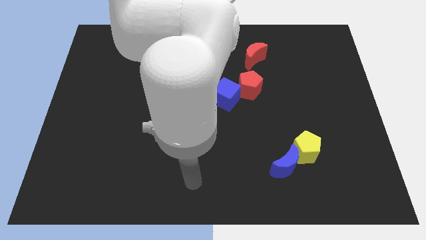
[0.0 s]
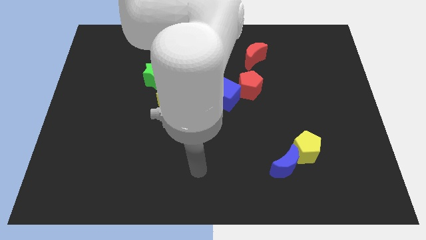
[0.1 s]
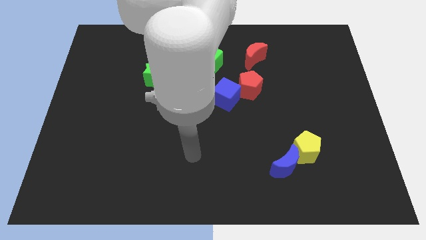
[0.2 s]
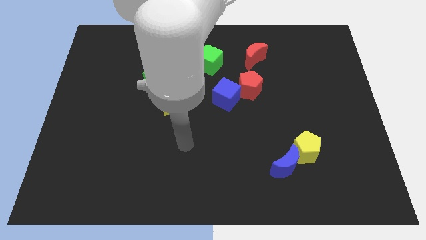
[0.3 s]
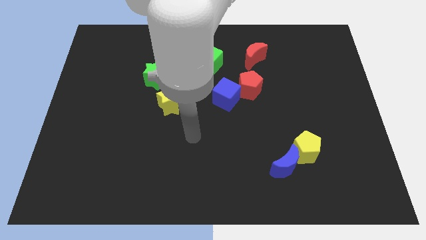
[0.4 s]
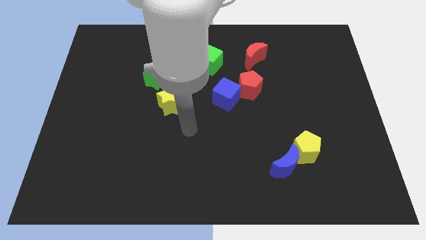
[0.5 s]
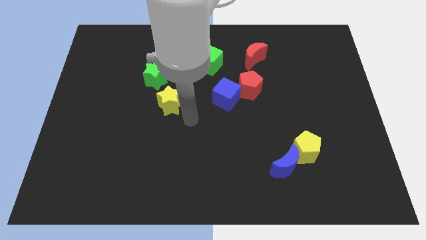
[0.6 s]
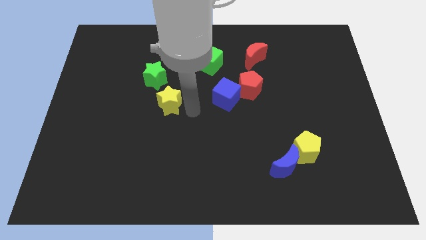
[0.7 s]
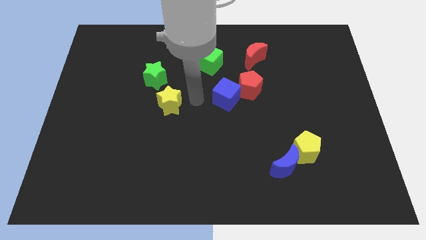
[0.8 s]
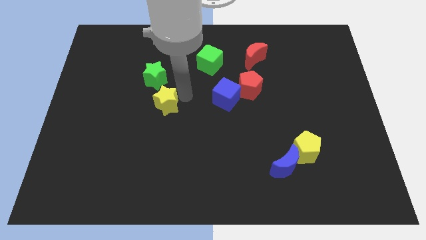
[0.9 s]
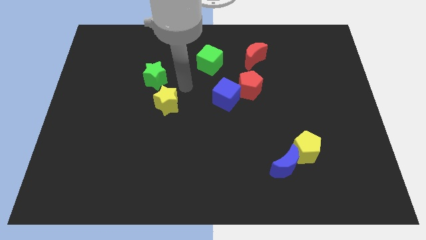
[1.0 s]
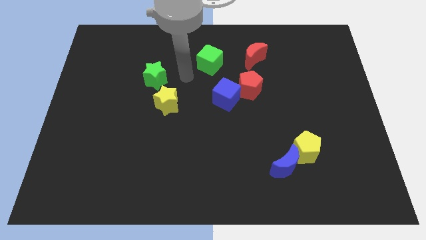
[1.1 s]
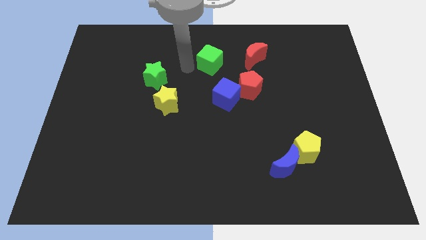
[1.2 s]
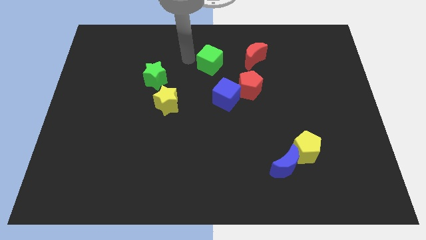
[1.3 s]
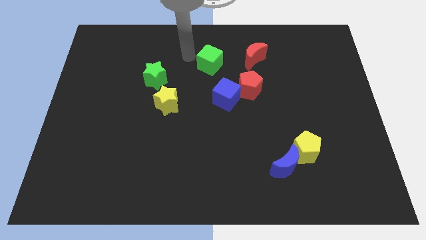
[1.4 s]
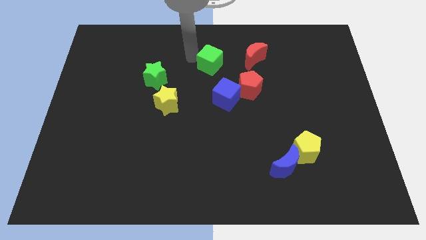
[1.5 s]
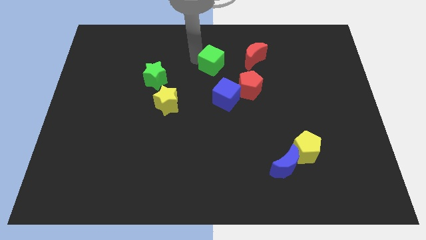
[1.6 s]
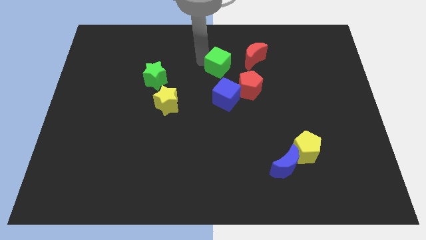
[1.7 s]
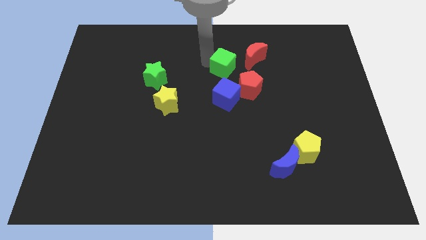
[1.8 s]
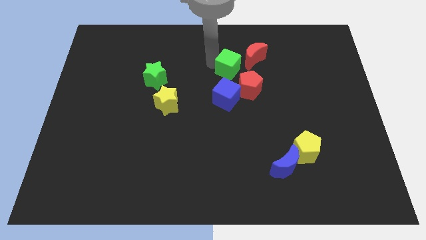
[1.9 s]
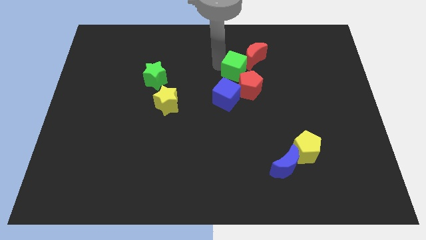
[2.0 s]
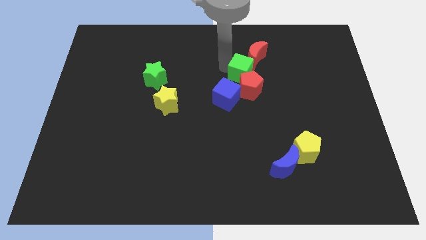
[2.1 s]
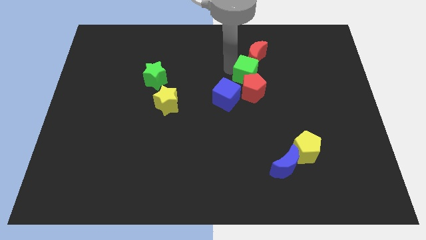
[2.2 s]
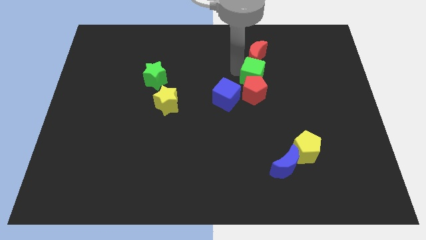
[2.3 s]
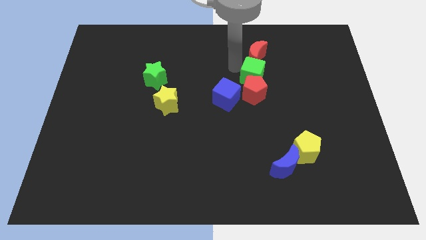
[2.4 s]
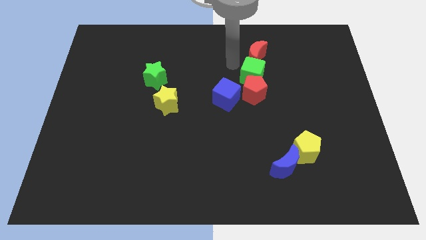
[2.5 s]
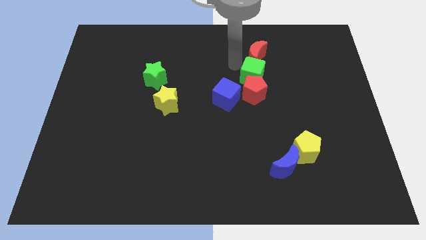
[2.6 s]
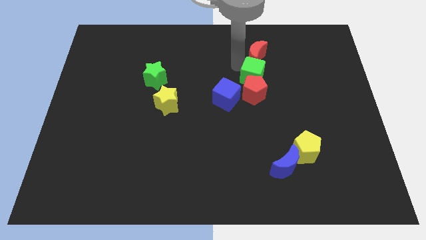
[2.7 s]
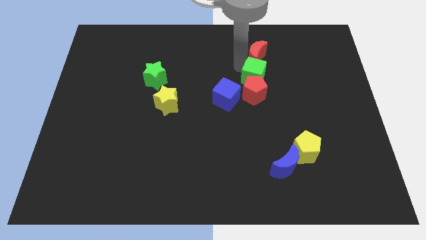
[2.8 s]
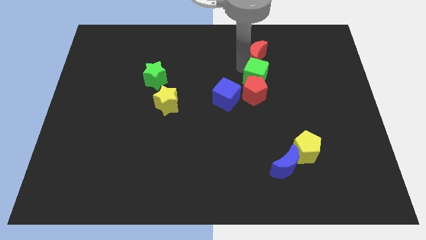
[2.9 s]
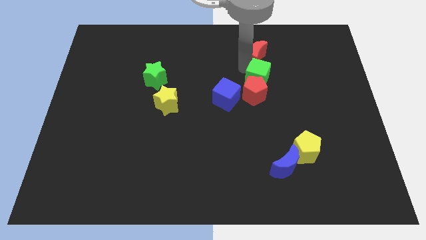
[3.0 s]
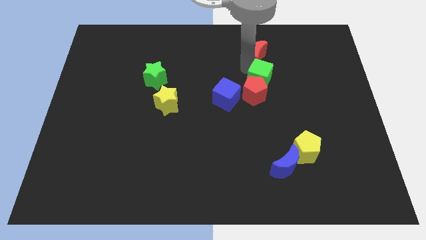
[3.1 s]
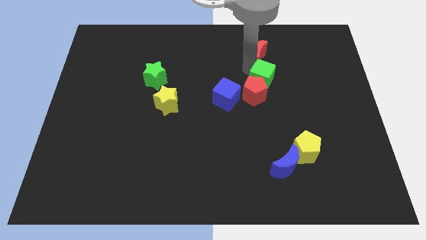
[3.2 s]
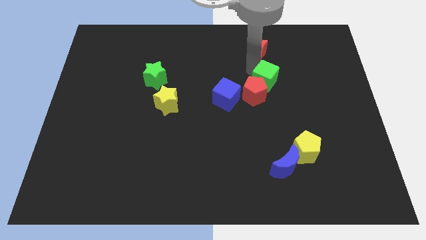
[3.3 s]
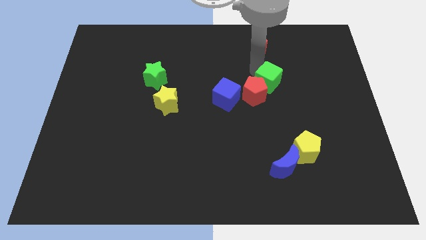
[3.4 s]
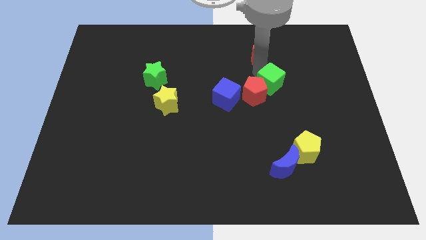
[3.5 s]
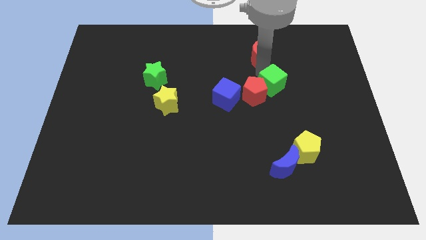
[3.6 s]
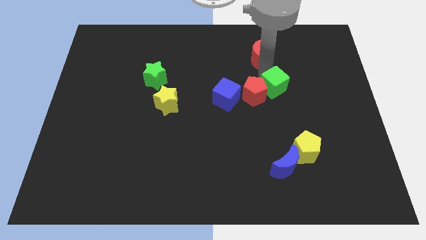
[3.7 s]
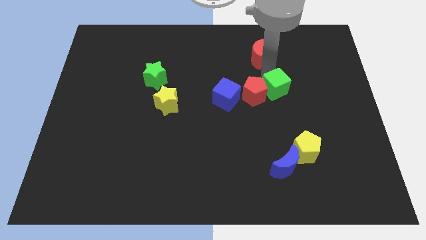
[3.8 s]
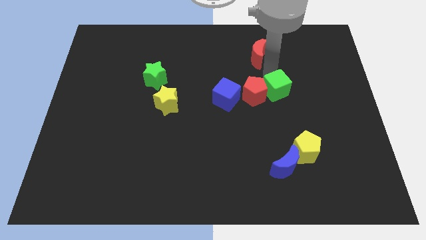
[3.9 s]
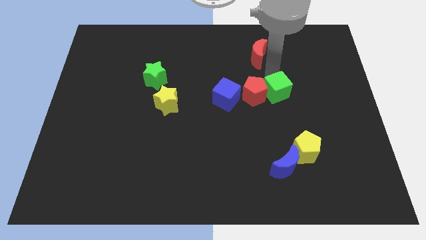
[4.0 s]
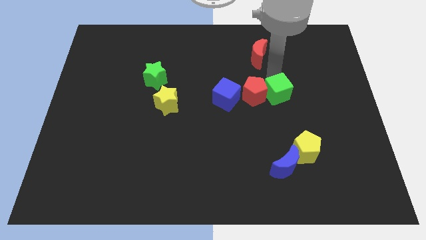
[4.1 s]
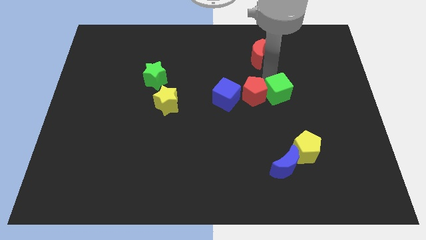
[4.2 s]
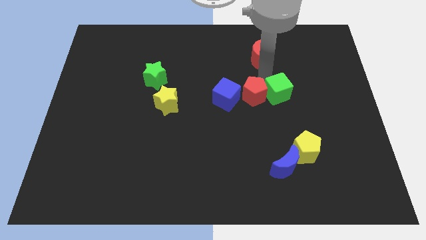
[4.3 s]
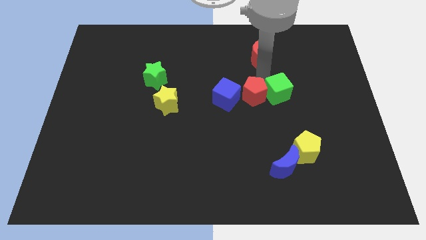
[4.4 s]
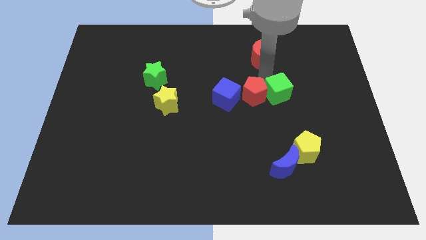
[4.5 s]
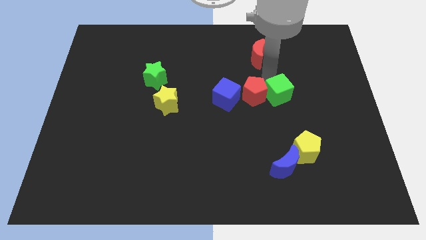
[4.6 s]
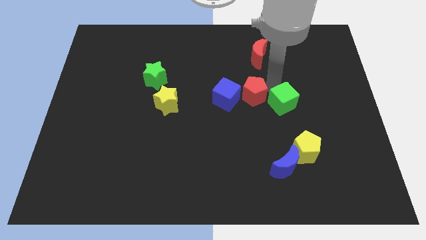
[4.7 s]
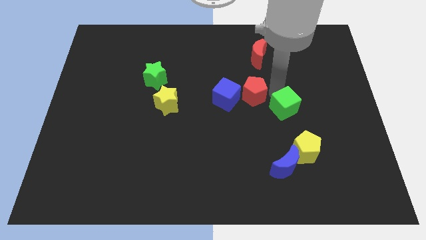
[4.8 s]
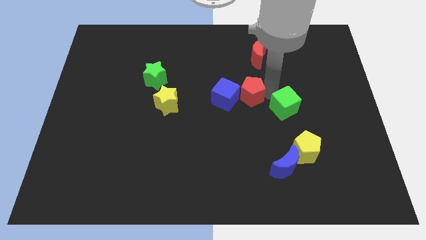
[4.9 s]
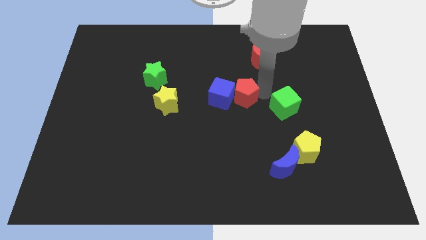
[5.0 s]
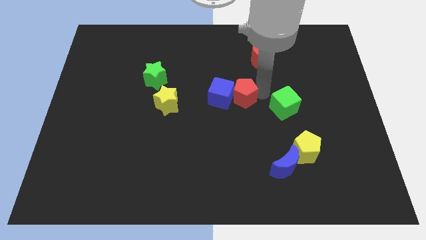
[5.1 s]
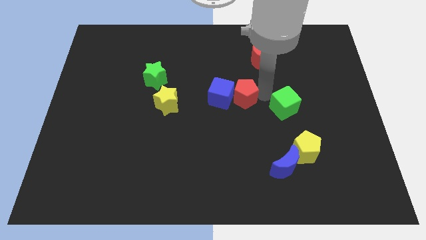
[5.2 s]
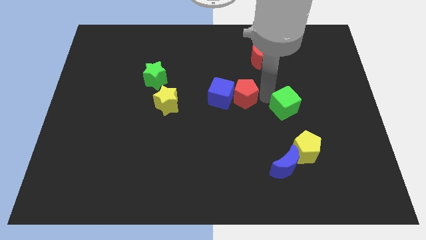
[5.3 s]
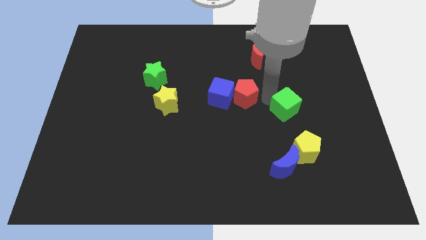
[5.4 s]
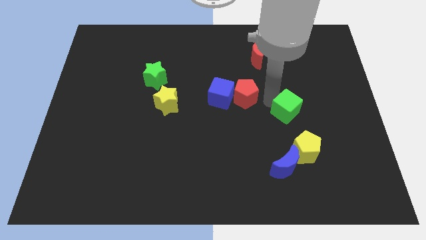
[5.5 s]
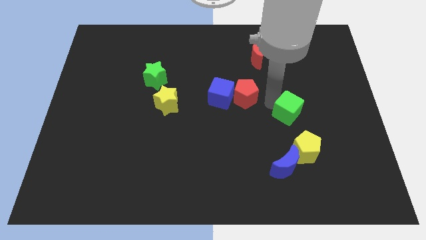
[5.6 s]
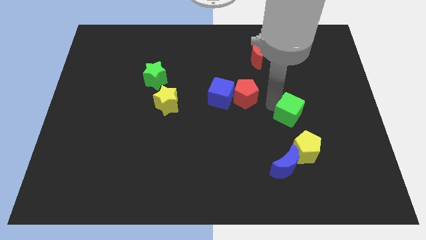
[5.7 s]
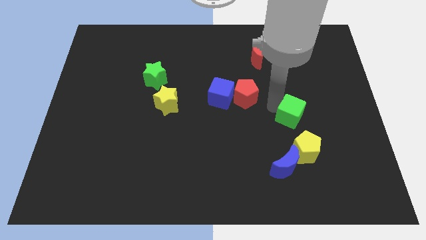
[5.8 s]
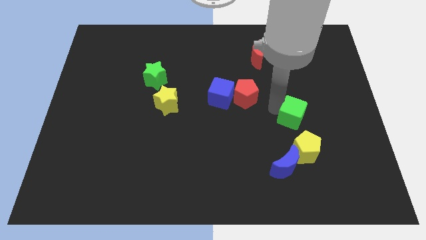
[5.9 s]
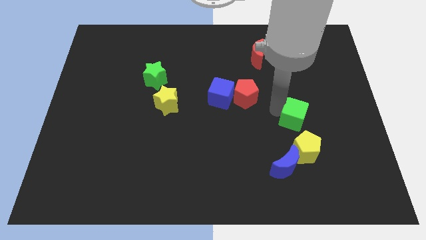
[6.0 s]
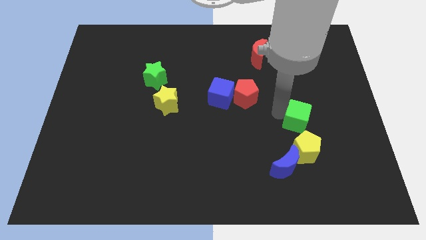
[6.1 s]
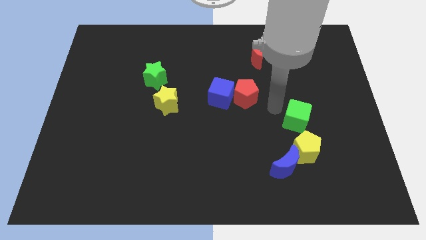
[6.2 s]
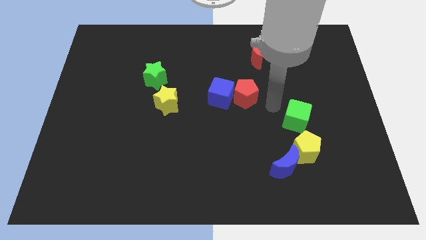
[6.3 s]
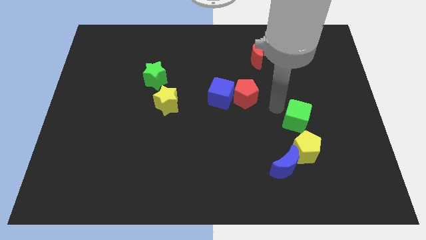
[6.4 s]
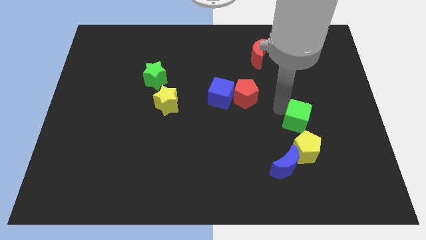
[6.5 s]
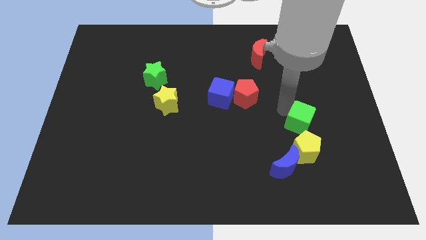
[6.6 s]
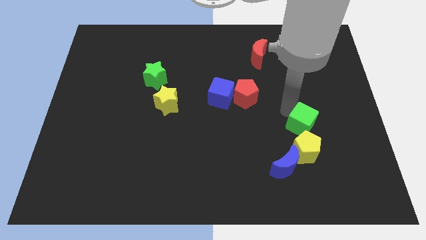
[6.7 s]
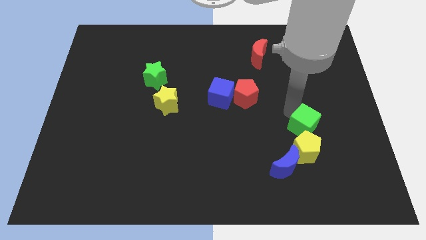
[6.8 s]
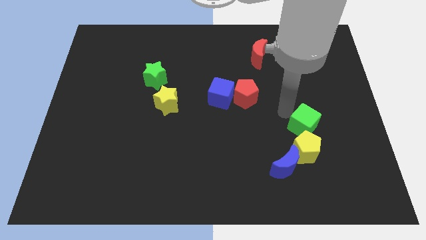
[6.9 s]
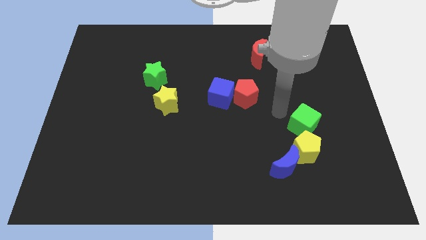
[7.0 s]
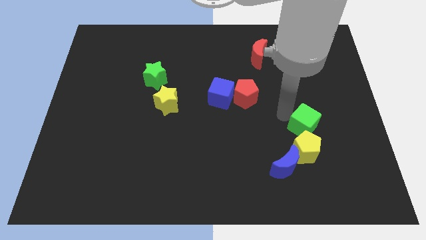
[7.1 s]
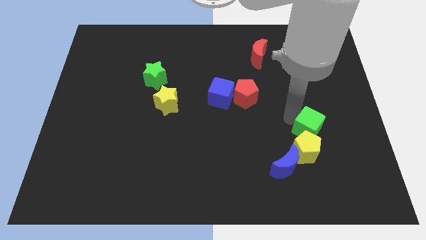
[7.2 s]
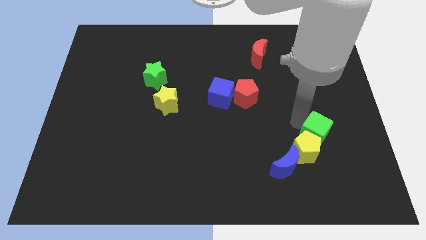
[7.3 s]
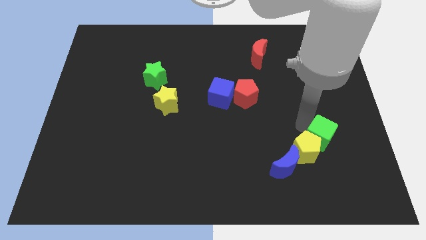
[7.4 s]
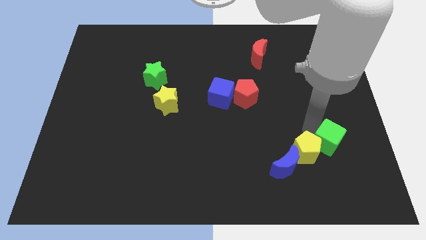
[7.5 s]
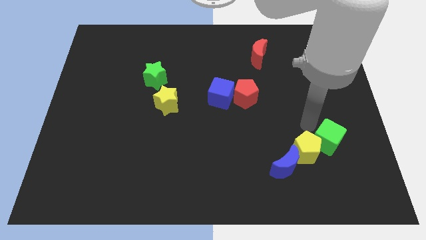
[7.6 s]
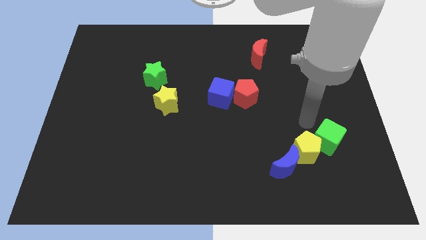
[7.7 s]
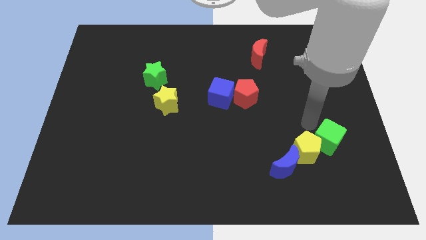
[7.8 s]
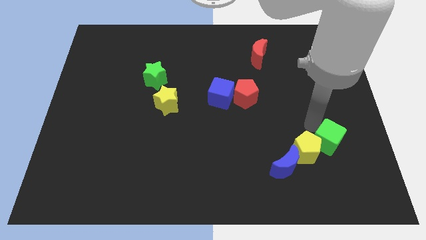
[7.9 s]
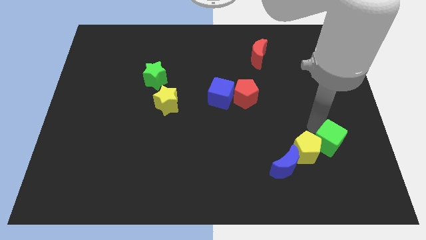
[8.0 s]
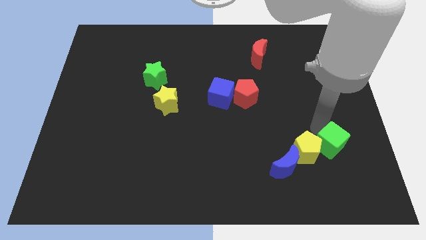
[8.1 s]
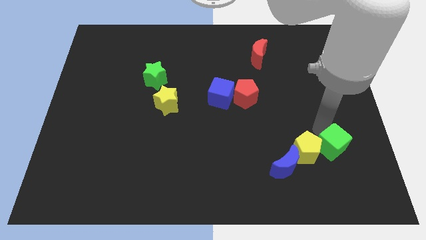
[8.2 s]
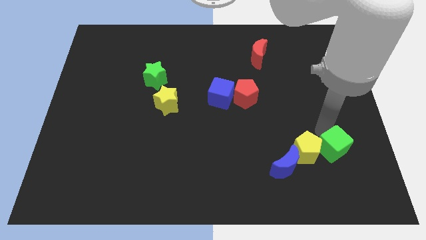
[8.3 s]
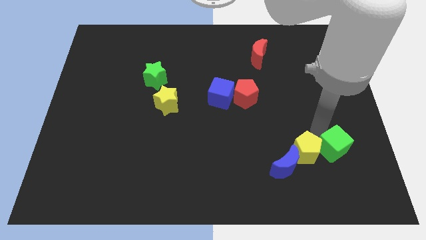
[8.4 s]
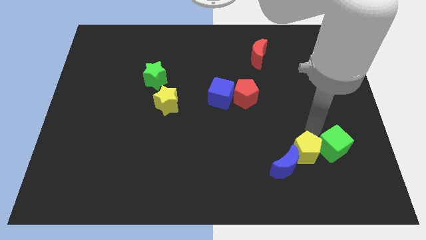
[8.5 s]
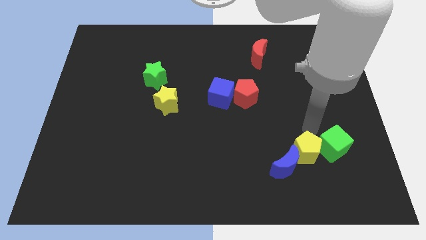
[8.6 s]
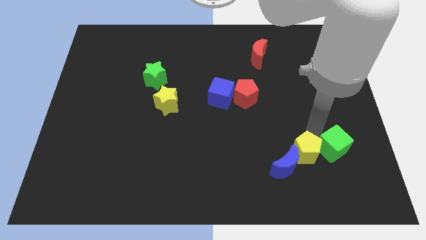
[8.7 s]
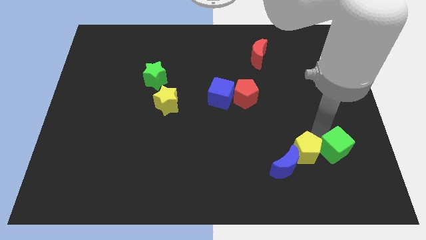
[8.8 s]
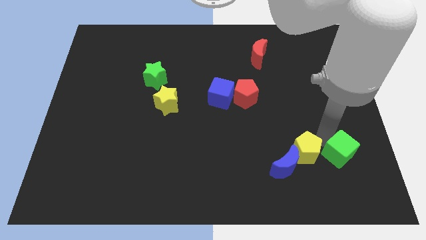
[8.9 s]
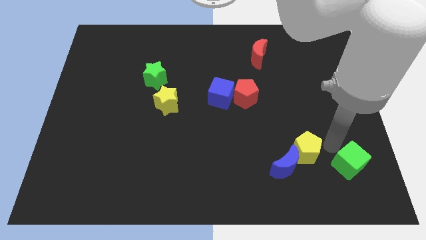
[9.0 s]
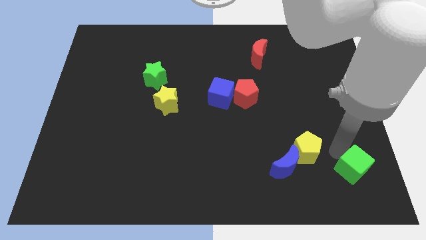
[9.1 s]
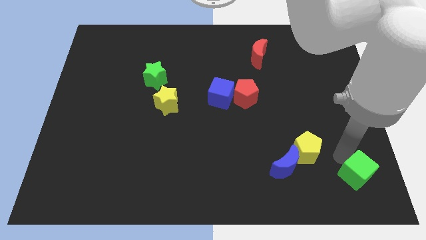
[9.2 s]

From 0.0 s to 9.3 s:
put the green cube to the bottom right corner
